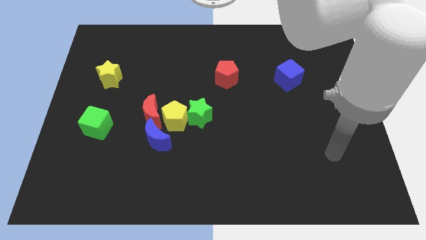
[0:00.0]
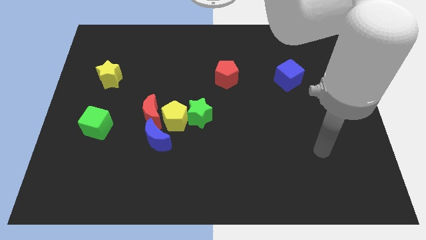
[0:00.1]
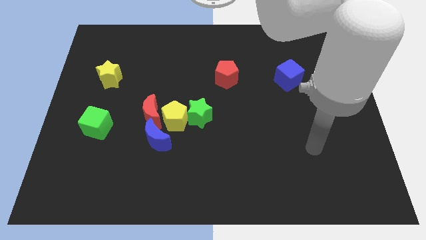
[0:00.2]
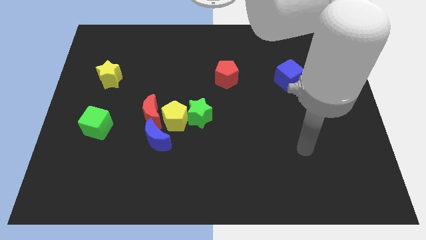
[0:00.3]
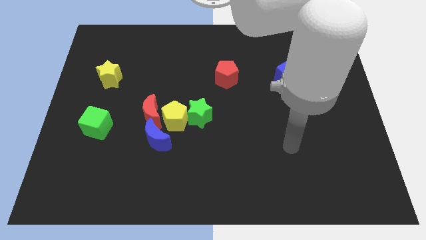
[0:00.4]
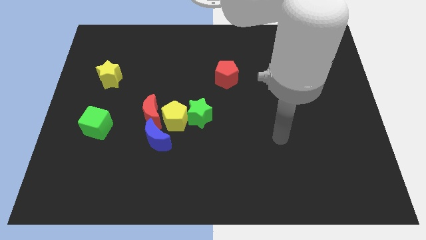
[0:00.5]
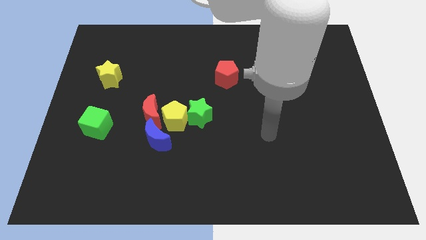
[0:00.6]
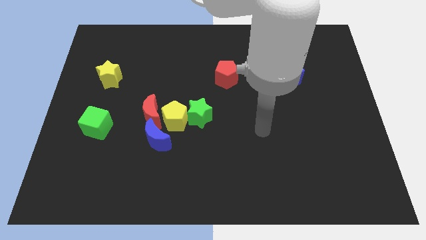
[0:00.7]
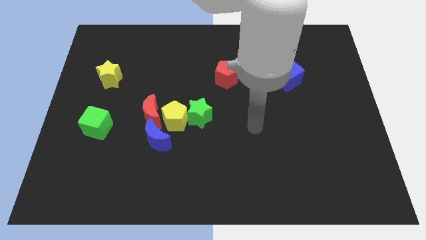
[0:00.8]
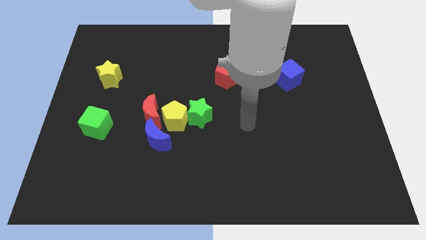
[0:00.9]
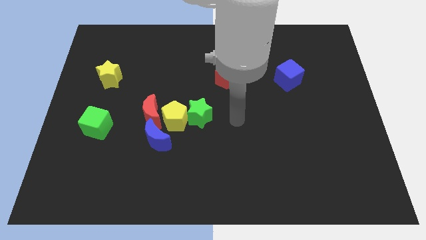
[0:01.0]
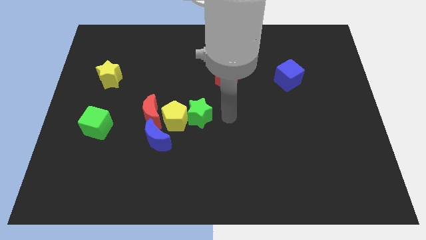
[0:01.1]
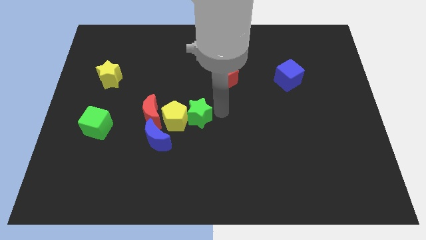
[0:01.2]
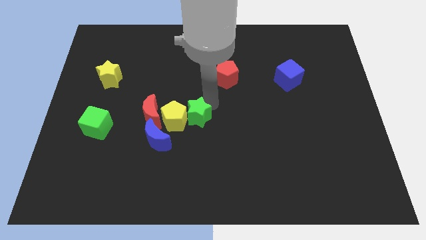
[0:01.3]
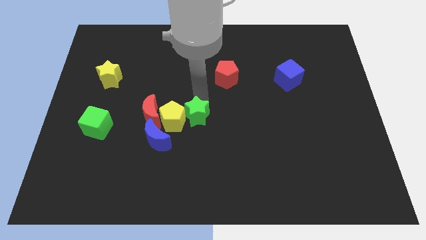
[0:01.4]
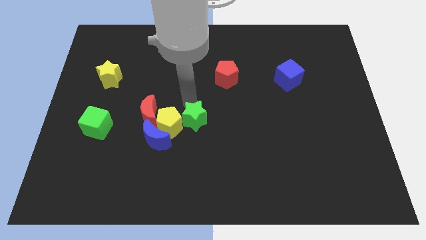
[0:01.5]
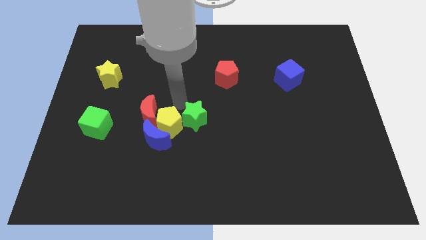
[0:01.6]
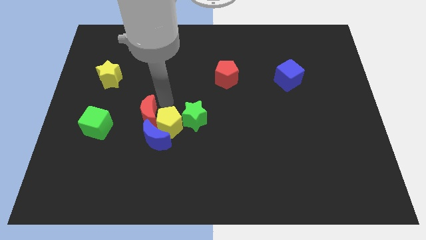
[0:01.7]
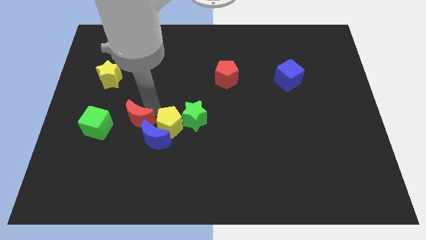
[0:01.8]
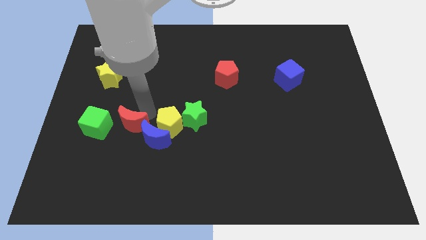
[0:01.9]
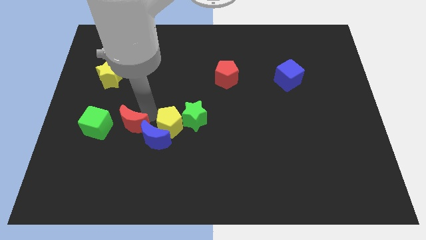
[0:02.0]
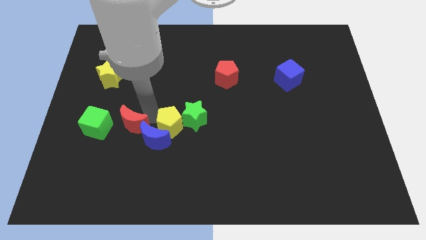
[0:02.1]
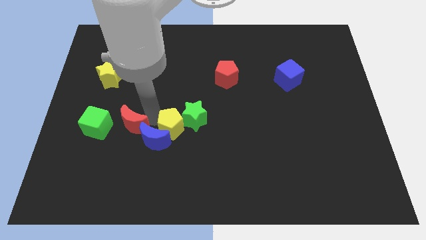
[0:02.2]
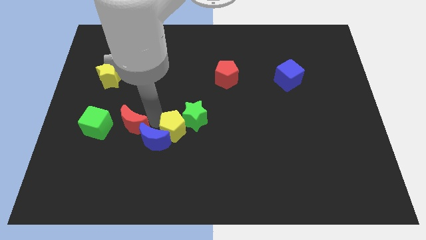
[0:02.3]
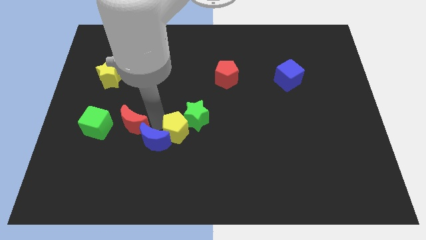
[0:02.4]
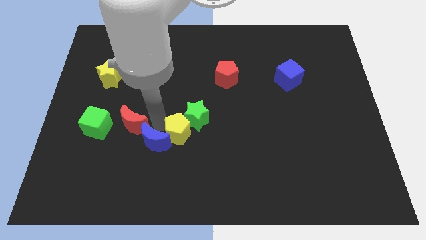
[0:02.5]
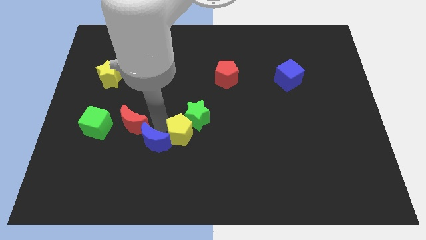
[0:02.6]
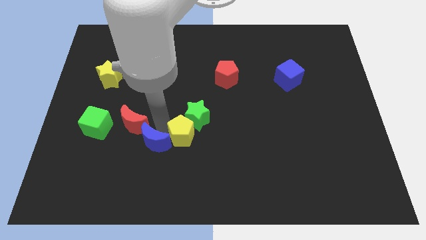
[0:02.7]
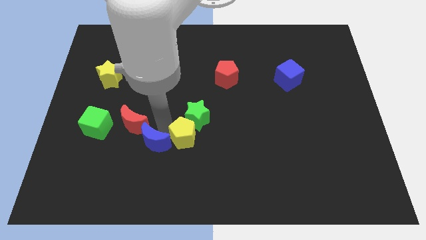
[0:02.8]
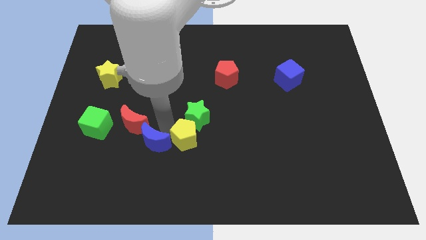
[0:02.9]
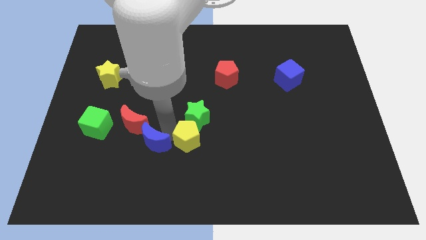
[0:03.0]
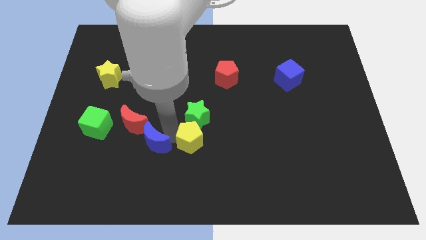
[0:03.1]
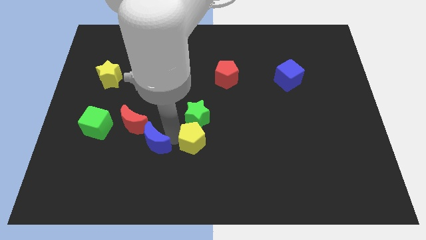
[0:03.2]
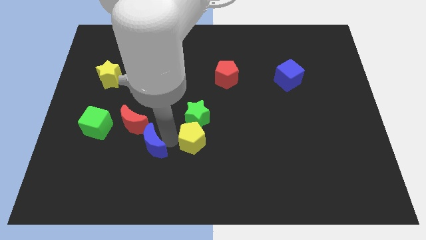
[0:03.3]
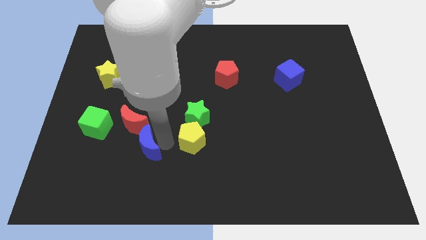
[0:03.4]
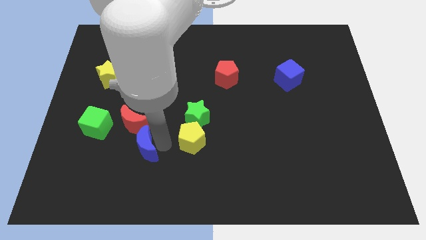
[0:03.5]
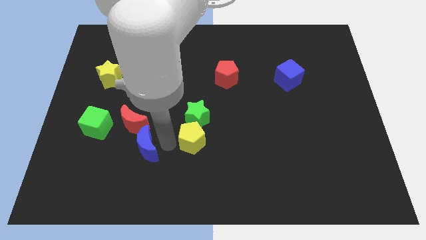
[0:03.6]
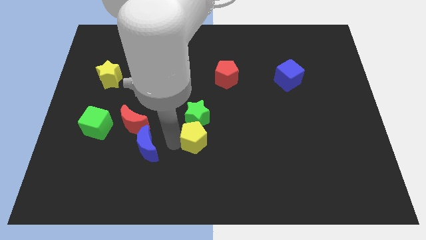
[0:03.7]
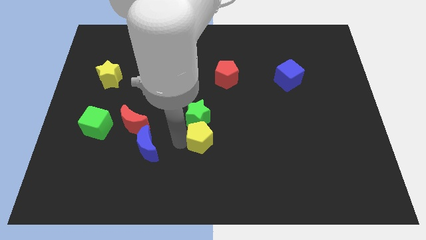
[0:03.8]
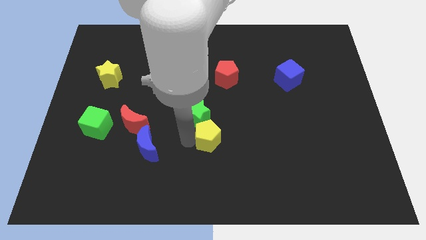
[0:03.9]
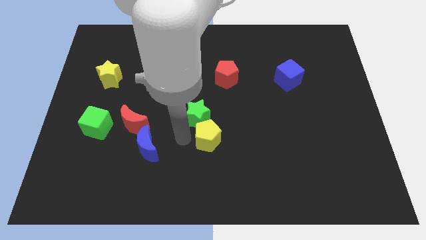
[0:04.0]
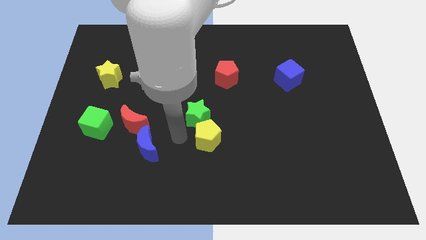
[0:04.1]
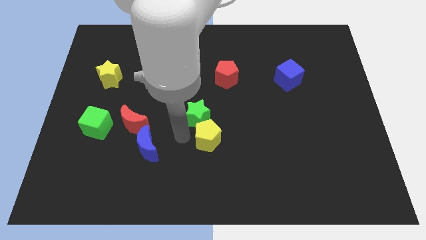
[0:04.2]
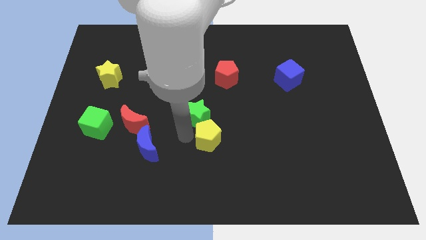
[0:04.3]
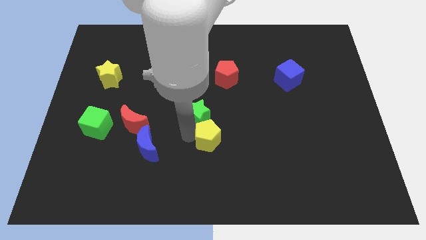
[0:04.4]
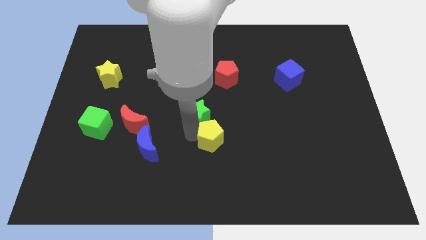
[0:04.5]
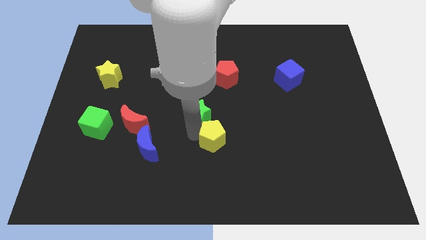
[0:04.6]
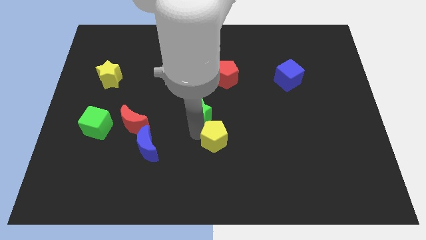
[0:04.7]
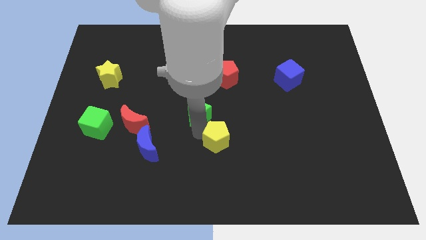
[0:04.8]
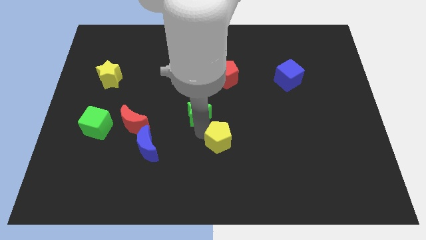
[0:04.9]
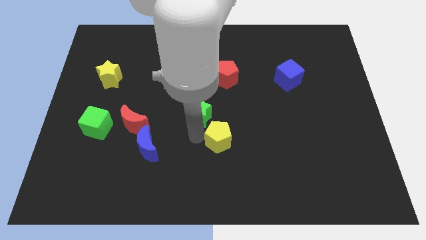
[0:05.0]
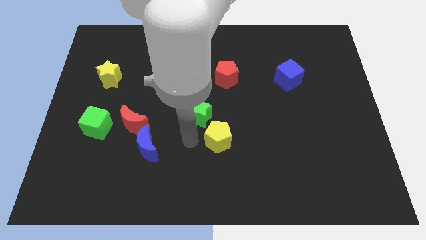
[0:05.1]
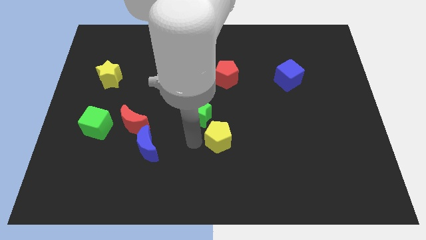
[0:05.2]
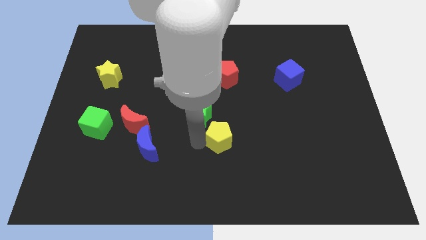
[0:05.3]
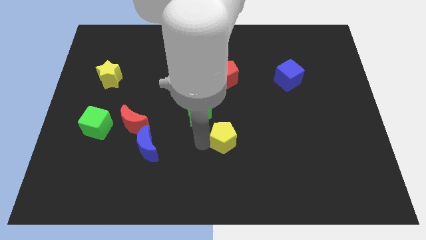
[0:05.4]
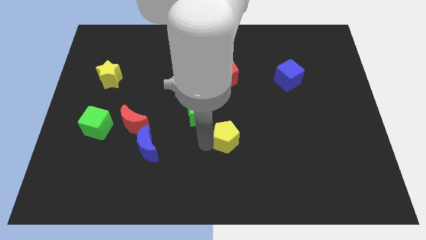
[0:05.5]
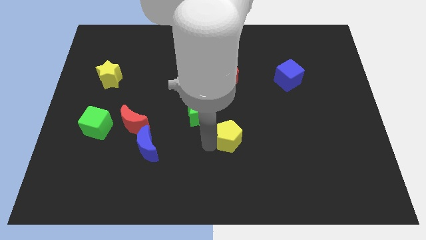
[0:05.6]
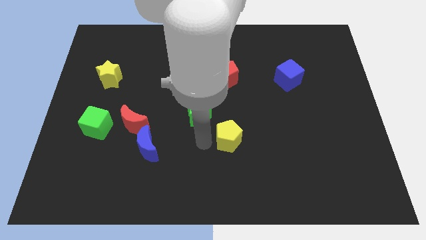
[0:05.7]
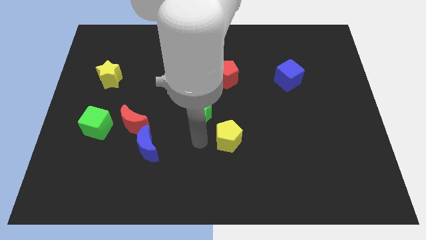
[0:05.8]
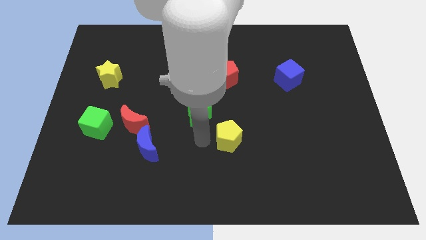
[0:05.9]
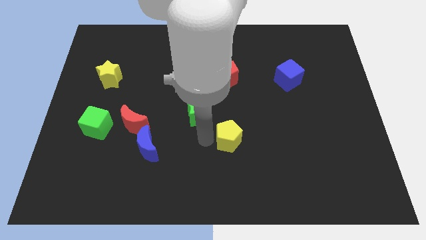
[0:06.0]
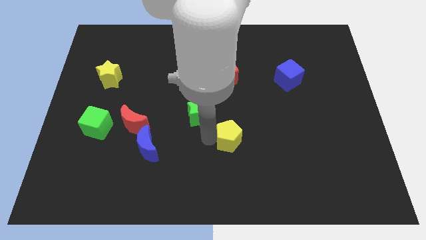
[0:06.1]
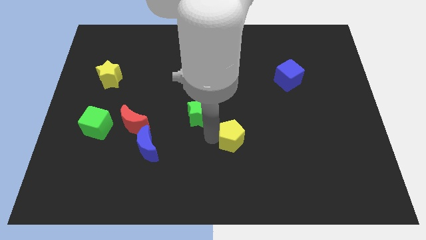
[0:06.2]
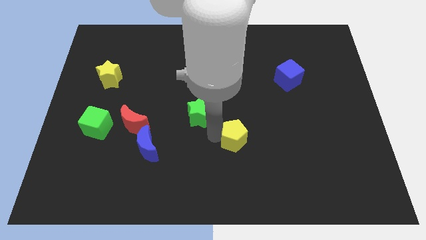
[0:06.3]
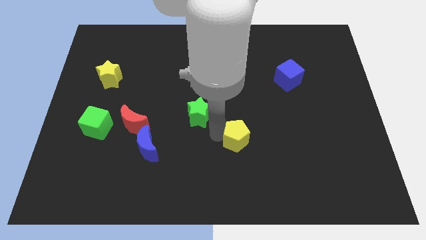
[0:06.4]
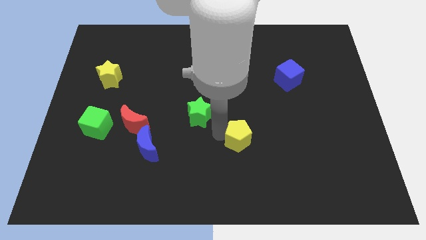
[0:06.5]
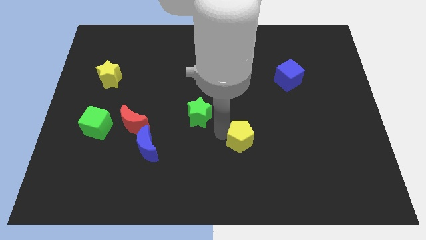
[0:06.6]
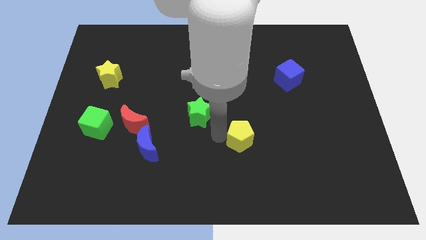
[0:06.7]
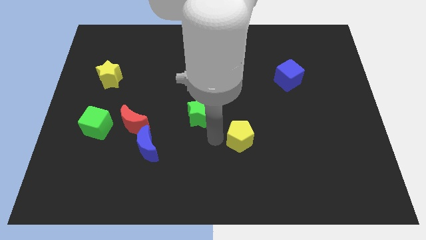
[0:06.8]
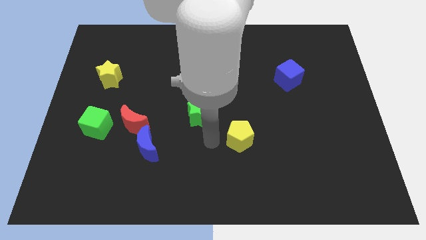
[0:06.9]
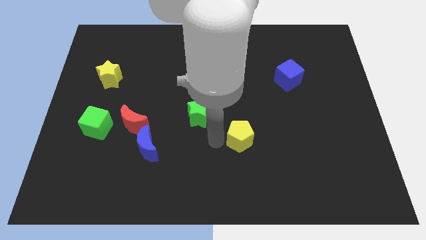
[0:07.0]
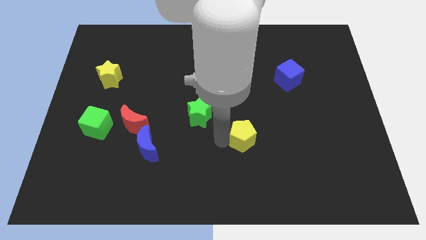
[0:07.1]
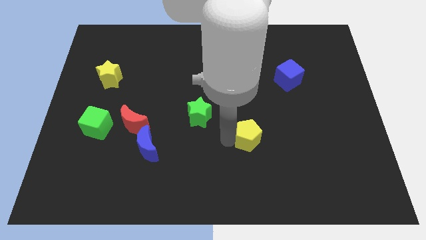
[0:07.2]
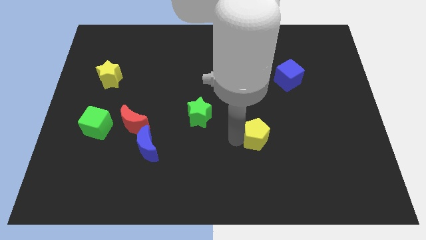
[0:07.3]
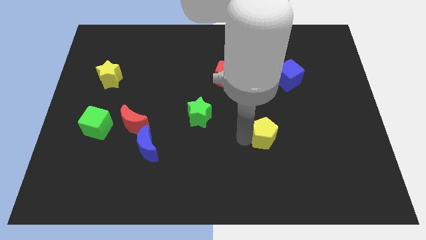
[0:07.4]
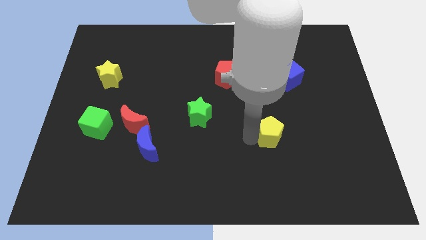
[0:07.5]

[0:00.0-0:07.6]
slide the yellow pentagon to the right

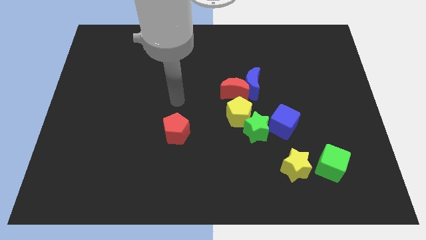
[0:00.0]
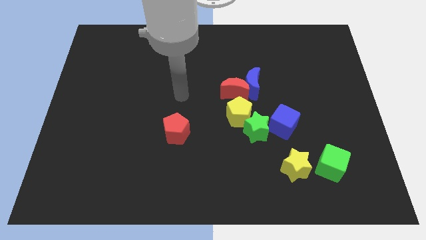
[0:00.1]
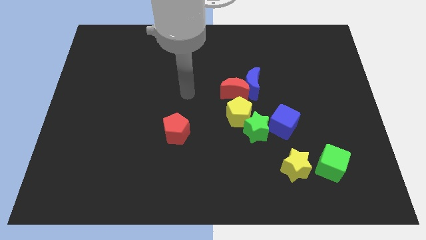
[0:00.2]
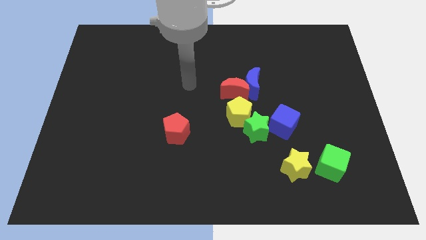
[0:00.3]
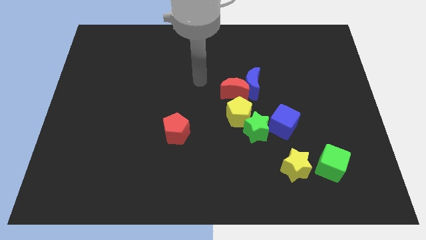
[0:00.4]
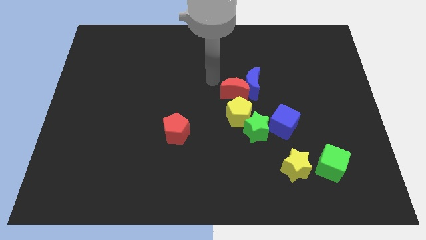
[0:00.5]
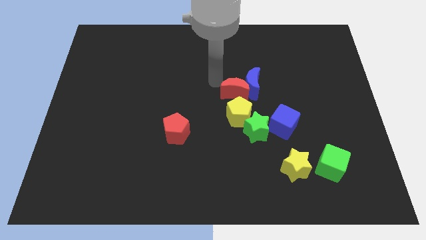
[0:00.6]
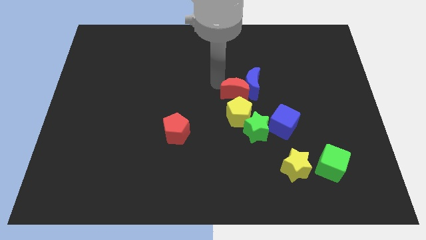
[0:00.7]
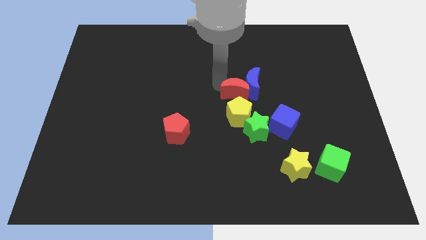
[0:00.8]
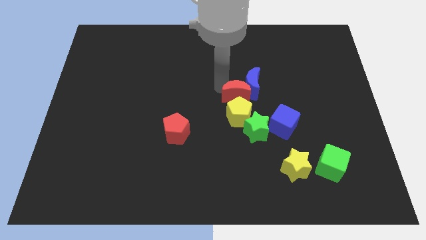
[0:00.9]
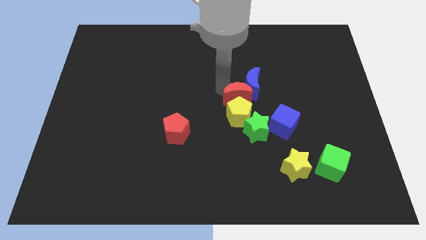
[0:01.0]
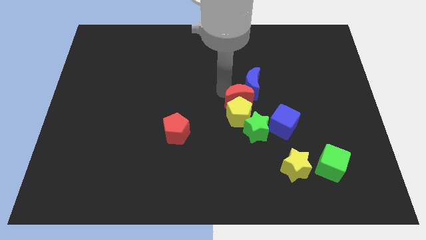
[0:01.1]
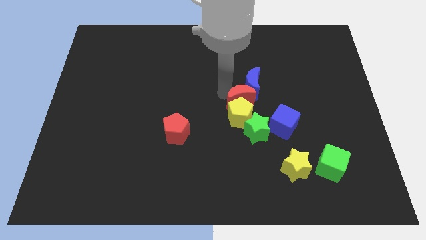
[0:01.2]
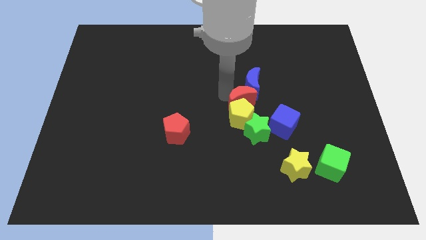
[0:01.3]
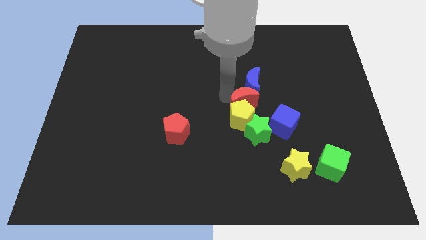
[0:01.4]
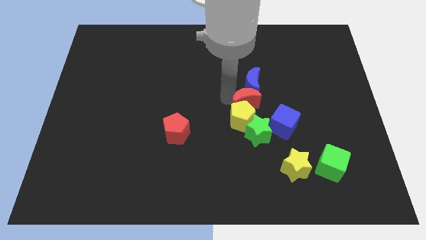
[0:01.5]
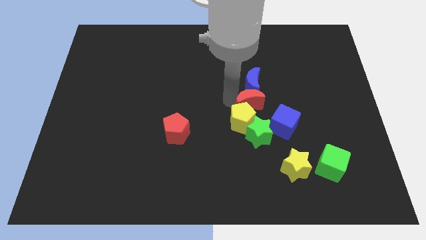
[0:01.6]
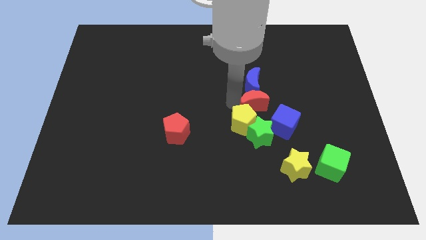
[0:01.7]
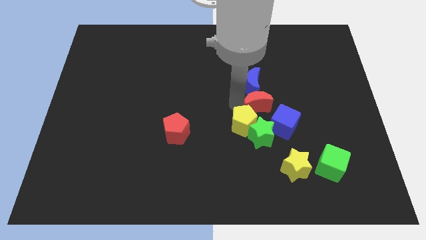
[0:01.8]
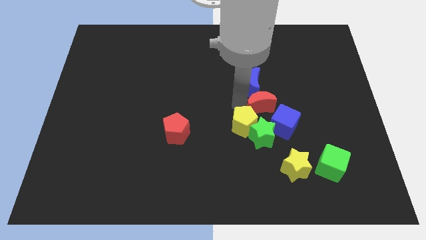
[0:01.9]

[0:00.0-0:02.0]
slightly slide the red moon downwards and to the right
